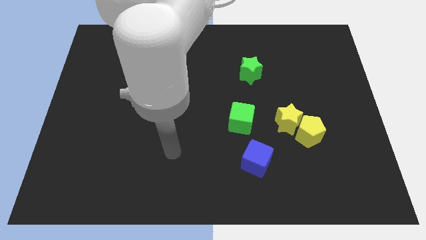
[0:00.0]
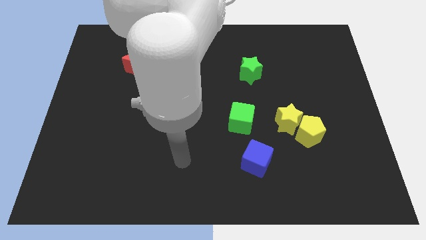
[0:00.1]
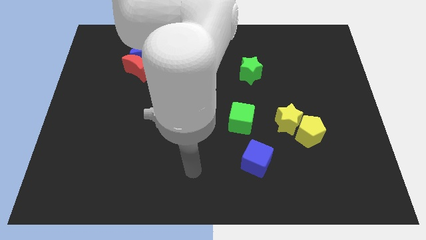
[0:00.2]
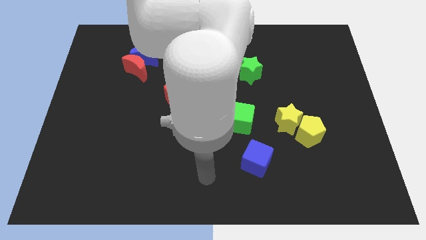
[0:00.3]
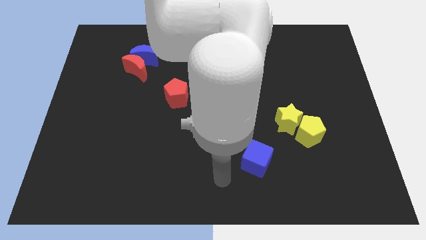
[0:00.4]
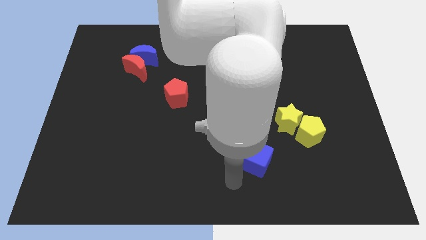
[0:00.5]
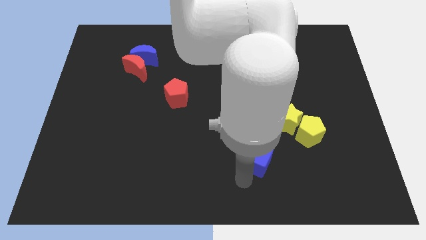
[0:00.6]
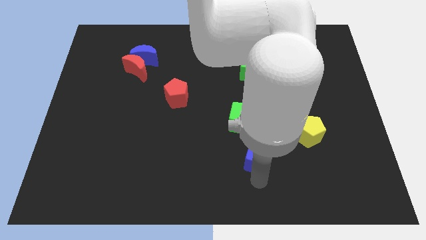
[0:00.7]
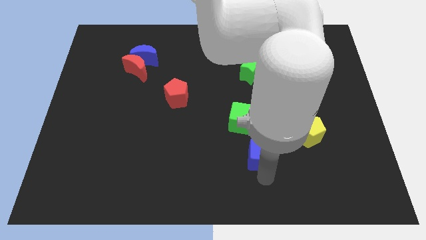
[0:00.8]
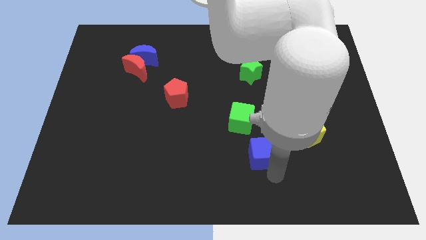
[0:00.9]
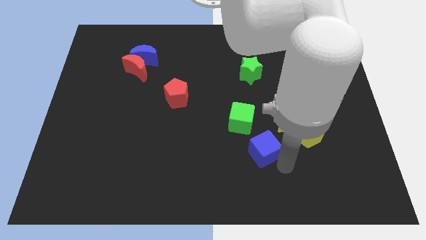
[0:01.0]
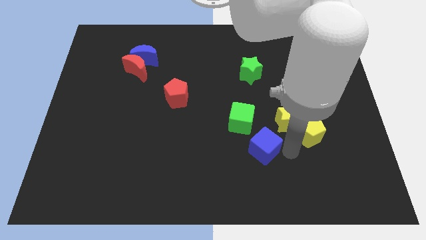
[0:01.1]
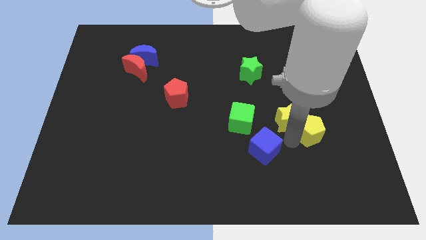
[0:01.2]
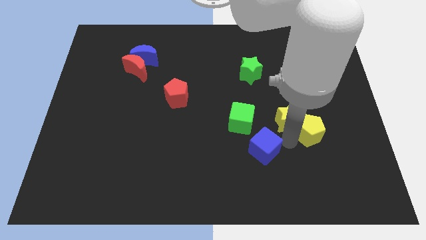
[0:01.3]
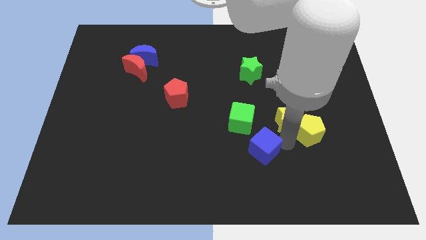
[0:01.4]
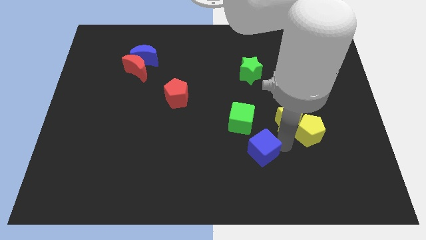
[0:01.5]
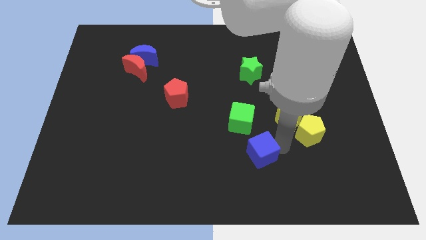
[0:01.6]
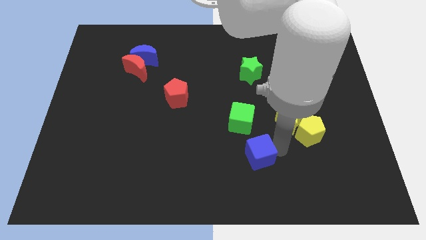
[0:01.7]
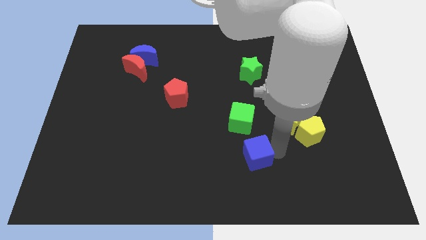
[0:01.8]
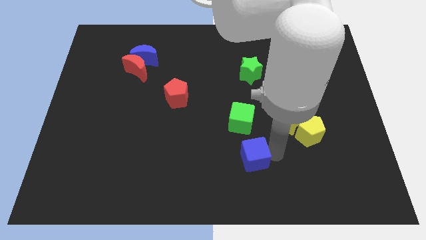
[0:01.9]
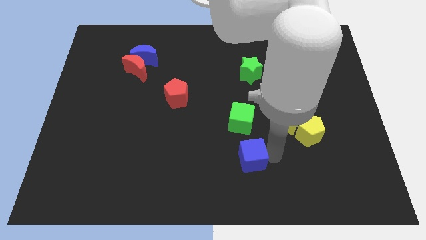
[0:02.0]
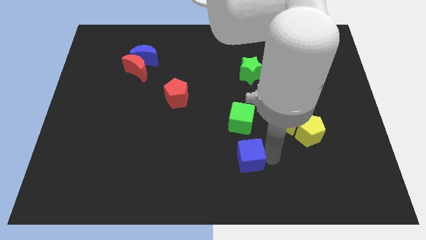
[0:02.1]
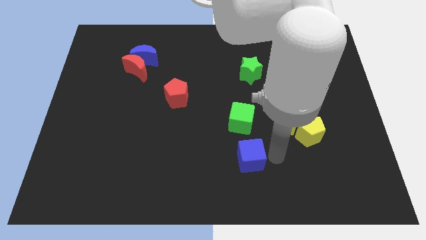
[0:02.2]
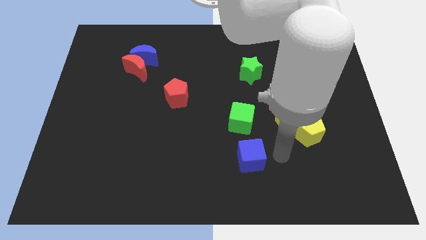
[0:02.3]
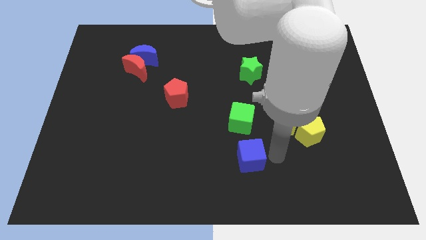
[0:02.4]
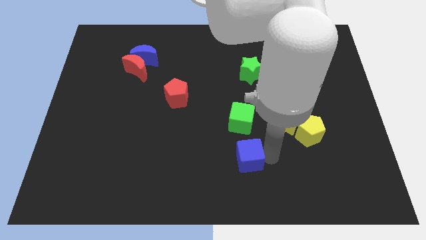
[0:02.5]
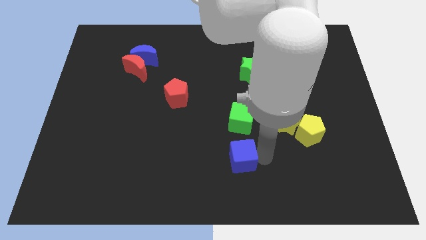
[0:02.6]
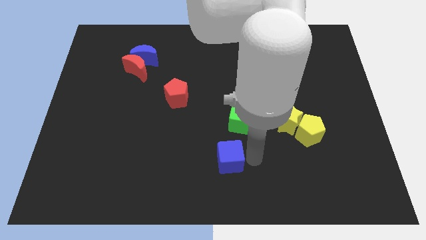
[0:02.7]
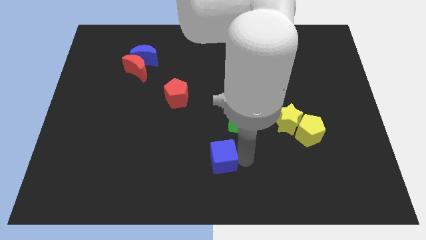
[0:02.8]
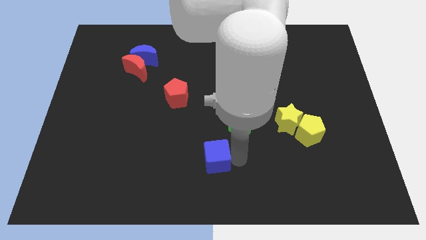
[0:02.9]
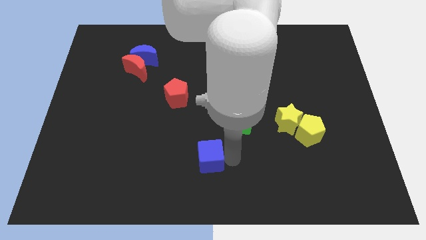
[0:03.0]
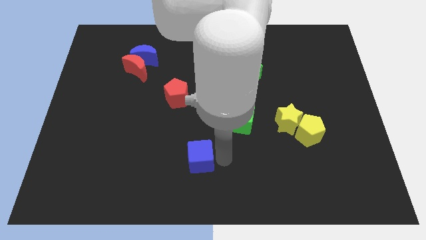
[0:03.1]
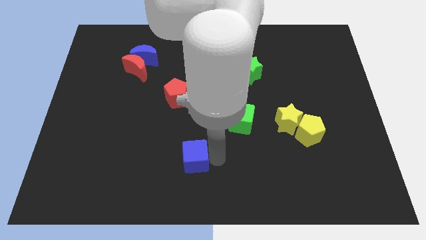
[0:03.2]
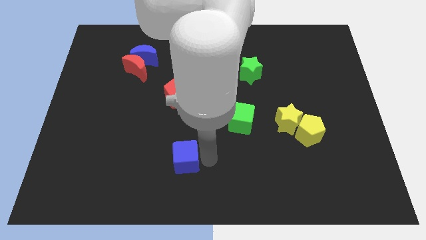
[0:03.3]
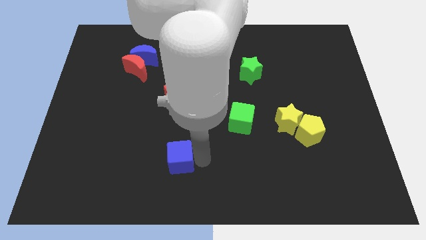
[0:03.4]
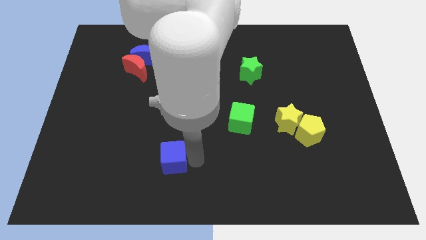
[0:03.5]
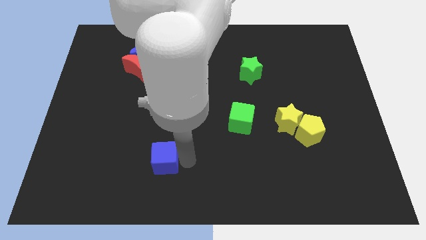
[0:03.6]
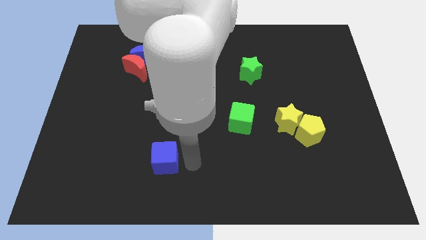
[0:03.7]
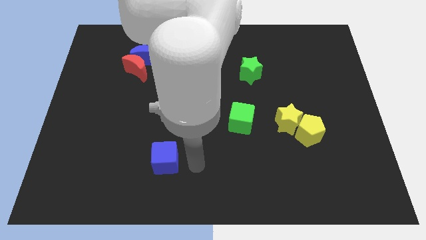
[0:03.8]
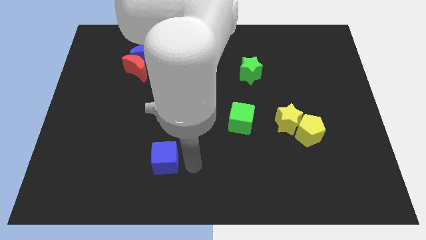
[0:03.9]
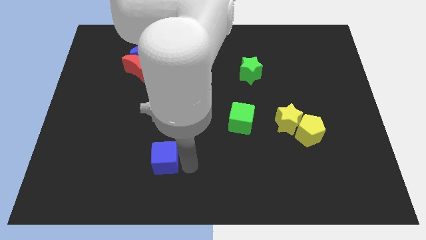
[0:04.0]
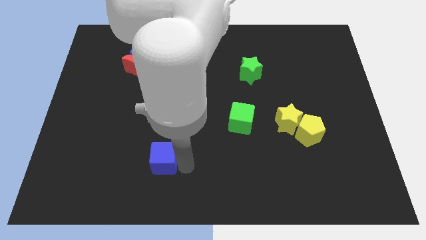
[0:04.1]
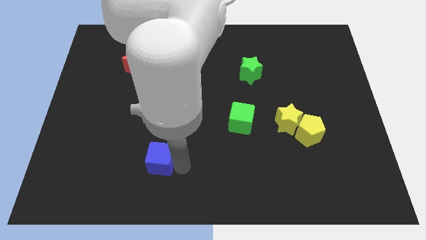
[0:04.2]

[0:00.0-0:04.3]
move the blue cube left

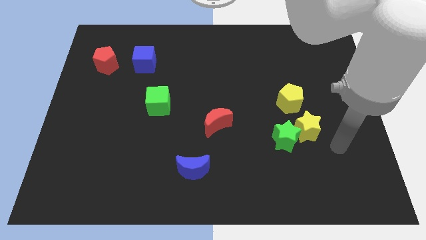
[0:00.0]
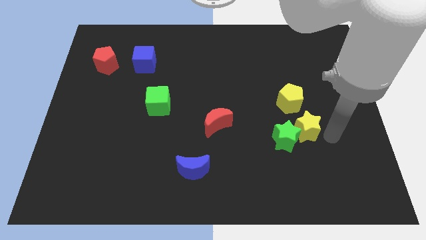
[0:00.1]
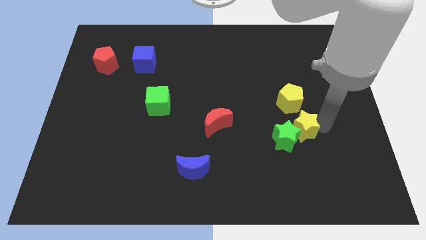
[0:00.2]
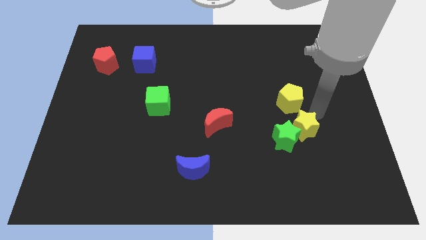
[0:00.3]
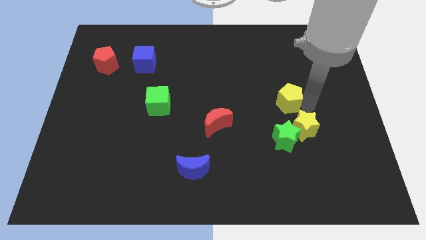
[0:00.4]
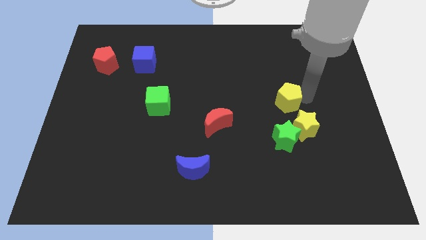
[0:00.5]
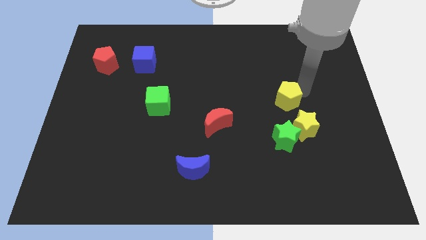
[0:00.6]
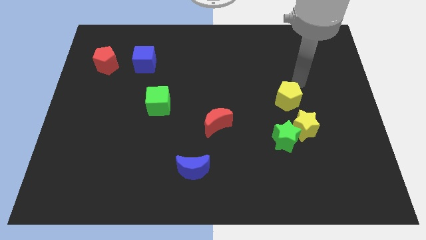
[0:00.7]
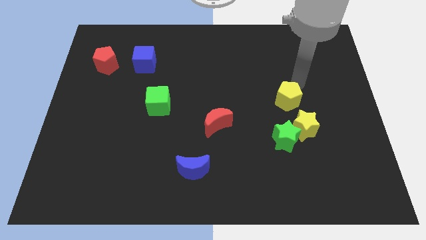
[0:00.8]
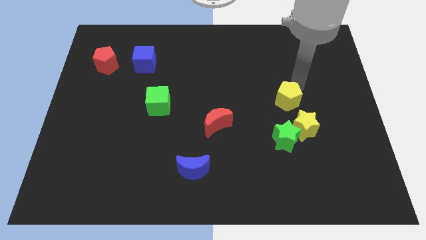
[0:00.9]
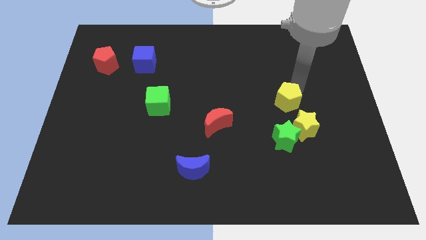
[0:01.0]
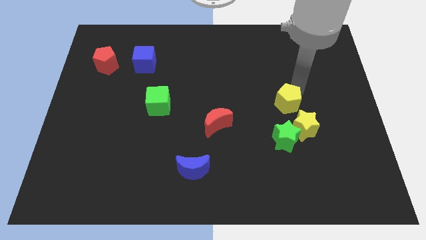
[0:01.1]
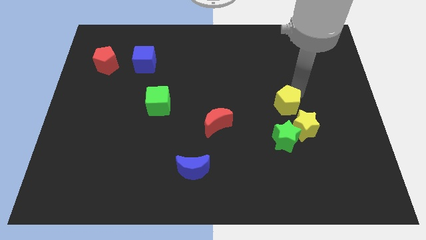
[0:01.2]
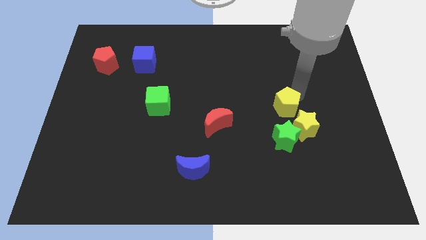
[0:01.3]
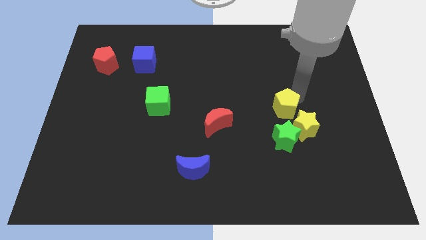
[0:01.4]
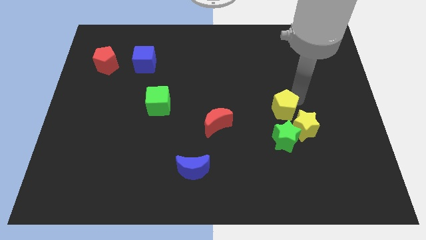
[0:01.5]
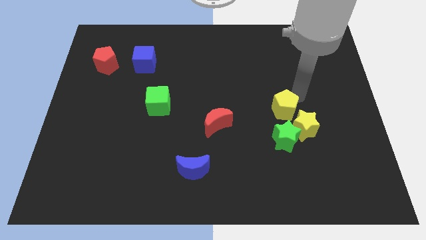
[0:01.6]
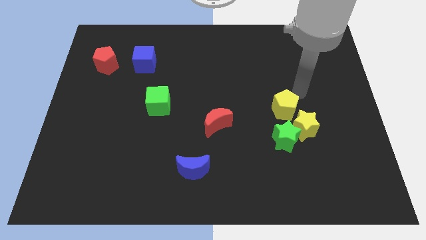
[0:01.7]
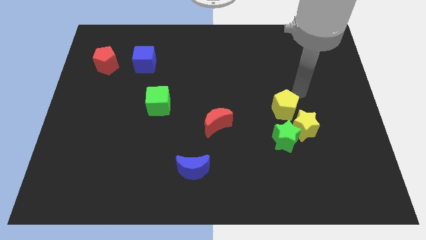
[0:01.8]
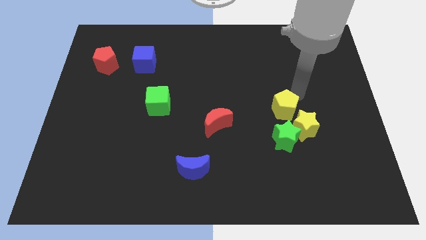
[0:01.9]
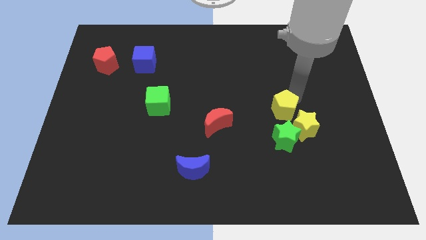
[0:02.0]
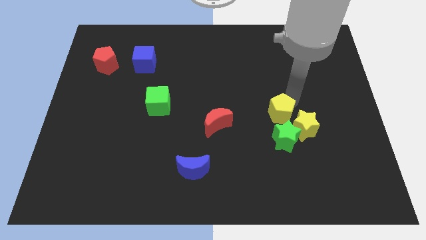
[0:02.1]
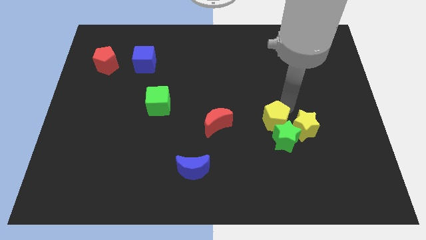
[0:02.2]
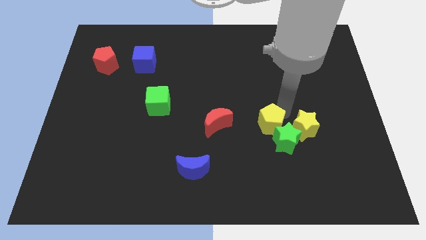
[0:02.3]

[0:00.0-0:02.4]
slightly move the yellow pentagon downwards and left diagonally

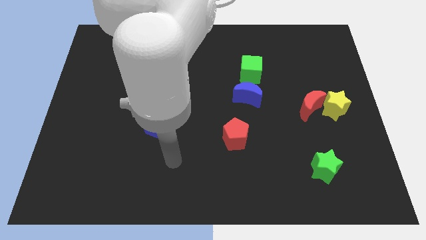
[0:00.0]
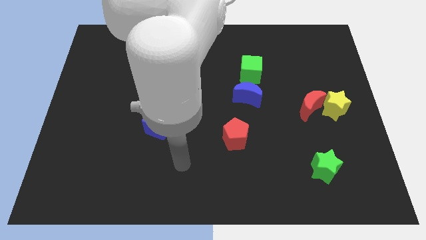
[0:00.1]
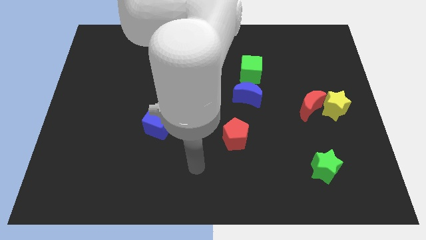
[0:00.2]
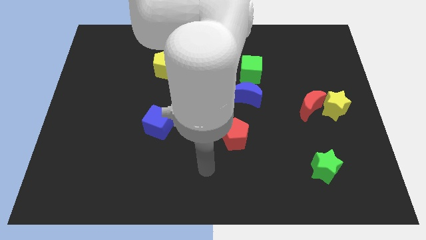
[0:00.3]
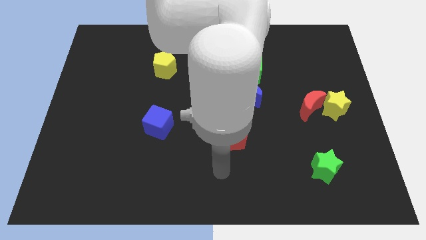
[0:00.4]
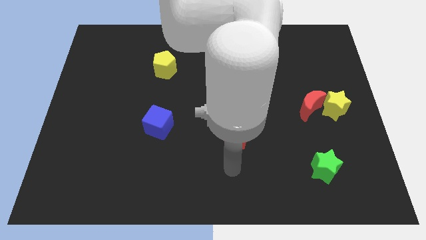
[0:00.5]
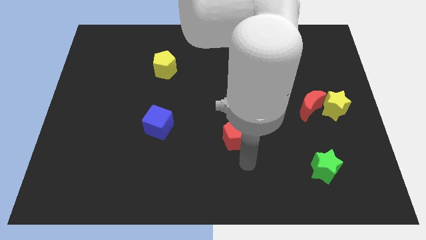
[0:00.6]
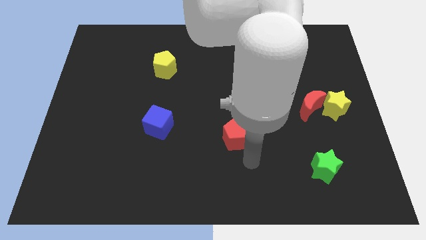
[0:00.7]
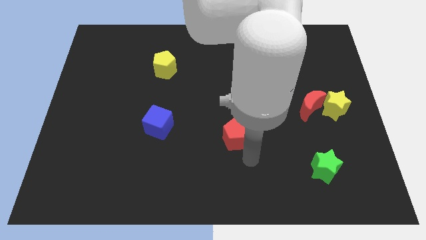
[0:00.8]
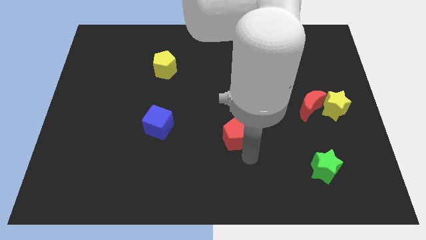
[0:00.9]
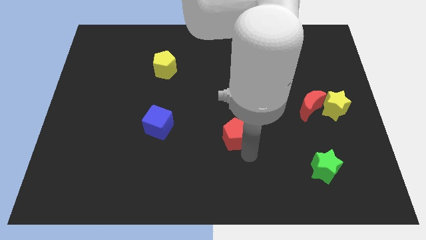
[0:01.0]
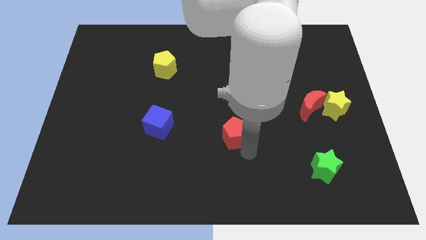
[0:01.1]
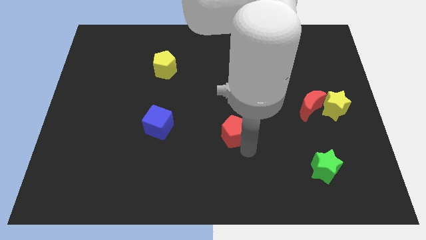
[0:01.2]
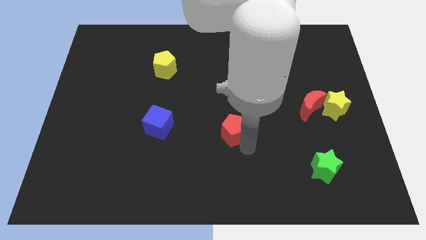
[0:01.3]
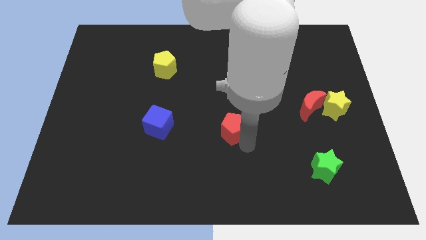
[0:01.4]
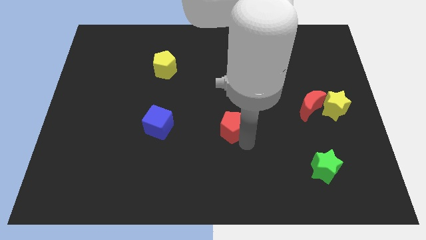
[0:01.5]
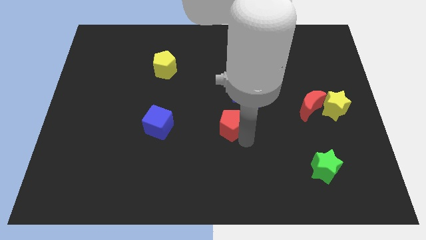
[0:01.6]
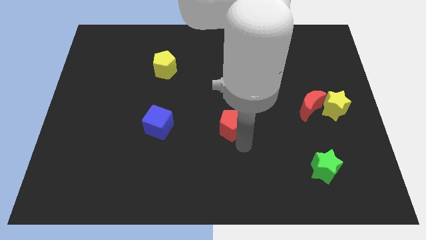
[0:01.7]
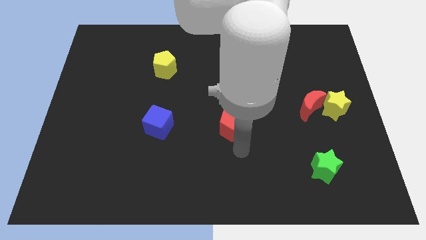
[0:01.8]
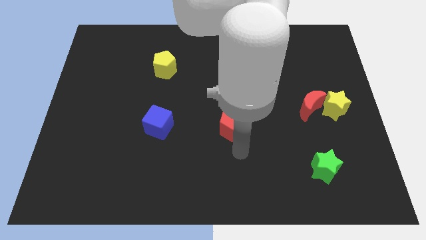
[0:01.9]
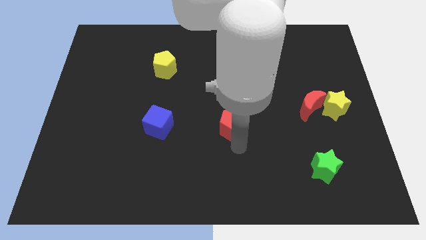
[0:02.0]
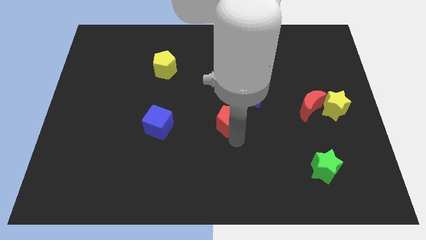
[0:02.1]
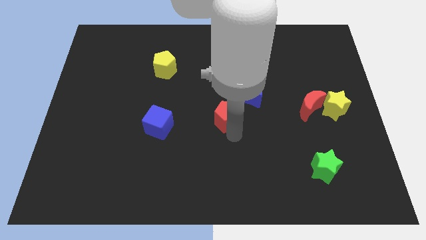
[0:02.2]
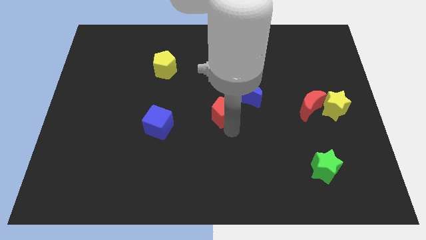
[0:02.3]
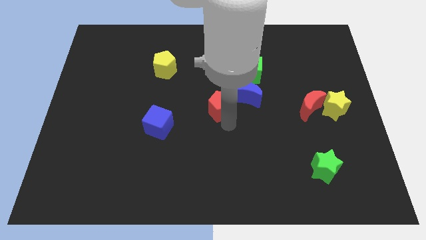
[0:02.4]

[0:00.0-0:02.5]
push the red pentagon a little upwards
